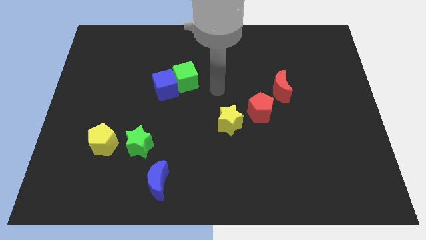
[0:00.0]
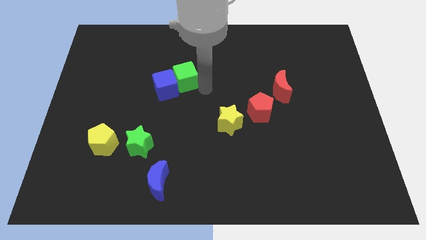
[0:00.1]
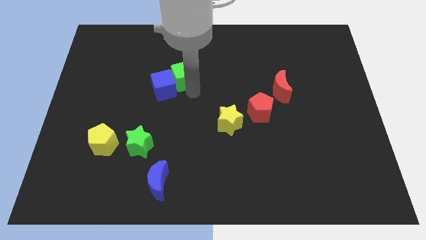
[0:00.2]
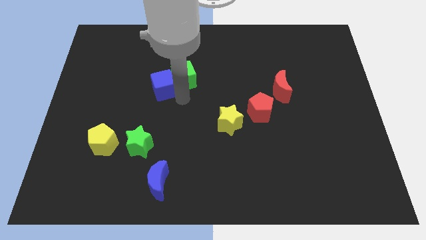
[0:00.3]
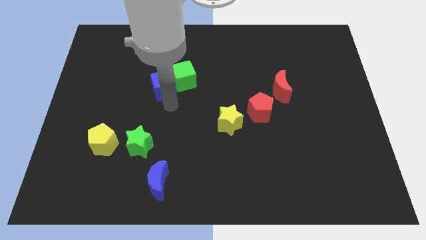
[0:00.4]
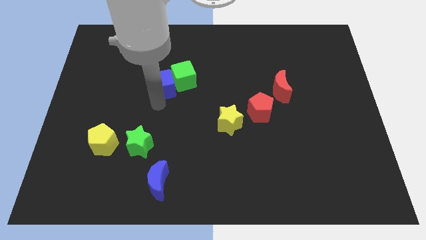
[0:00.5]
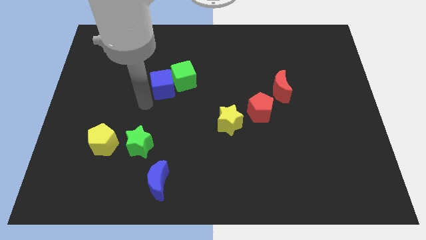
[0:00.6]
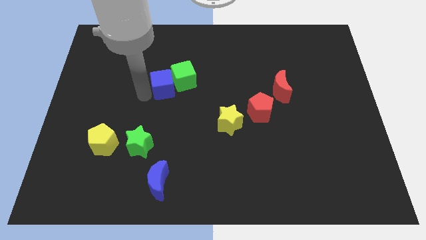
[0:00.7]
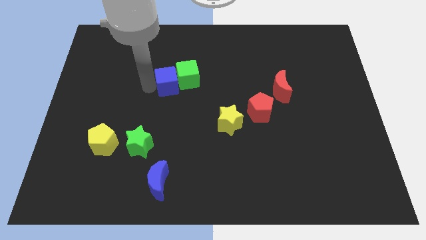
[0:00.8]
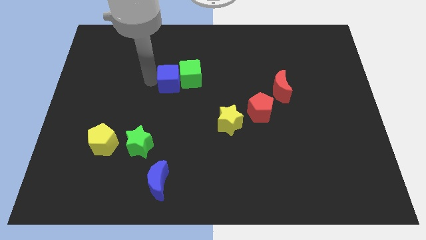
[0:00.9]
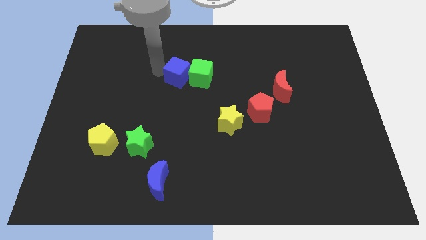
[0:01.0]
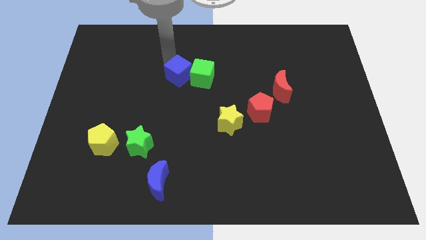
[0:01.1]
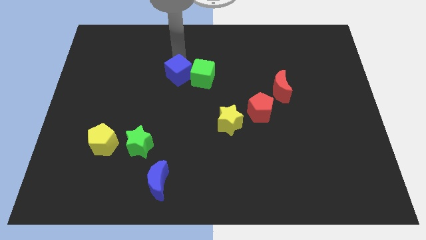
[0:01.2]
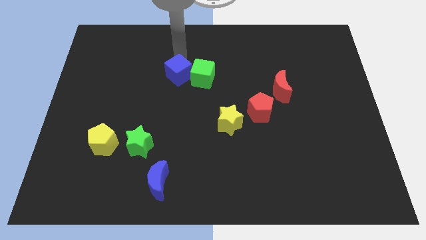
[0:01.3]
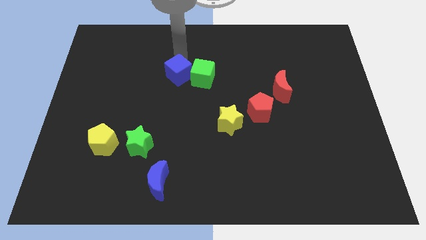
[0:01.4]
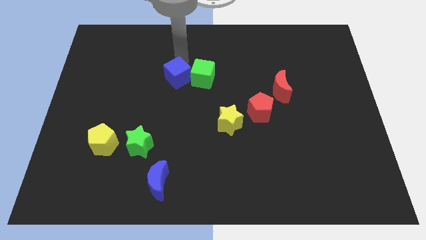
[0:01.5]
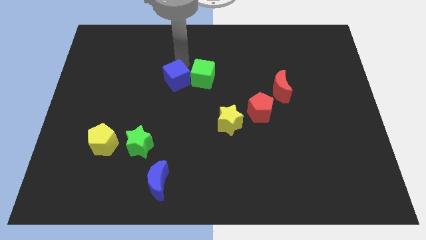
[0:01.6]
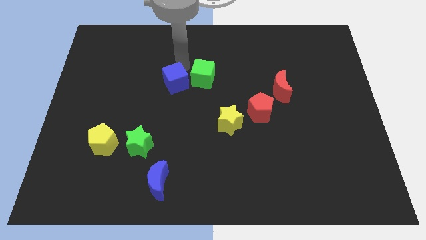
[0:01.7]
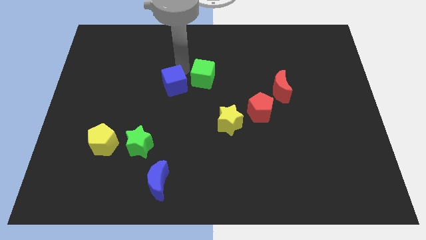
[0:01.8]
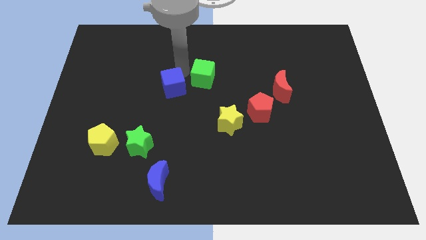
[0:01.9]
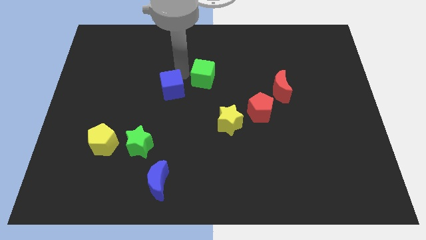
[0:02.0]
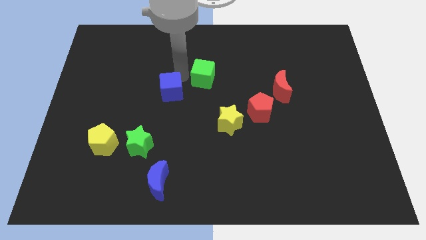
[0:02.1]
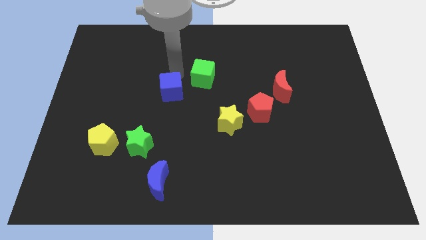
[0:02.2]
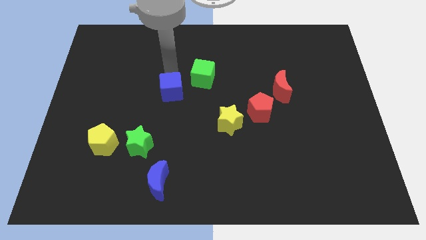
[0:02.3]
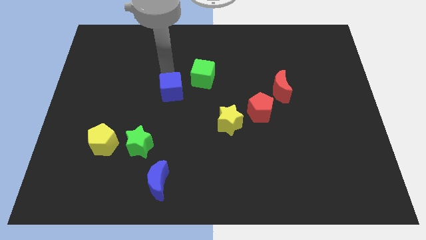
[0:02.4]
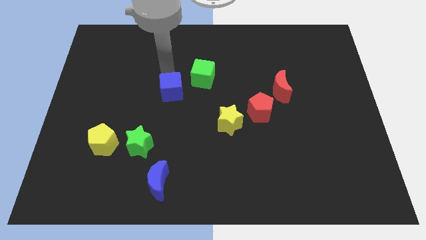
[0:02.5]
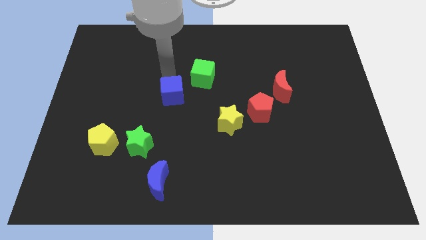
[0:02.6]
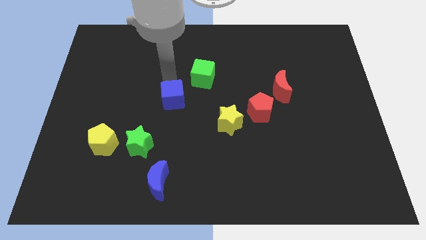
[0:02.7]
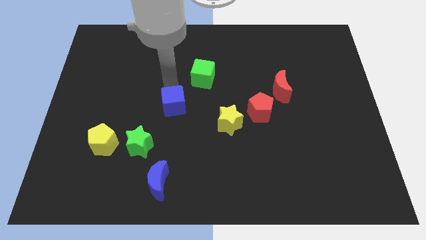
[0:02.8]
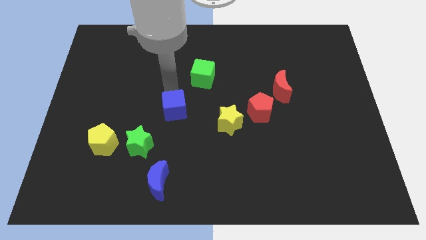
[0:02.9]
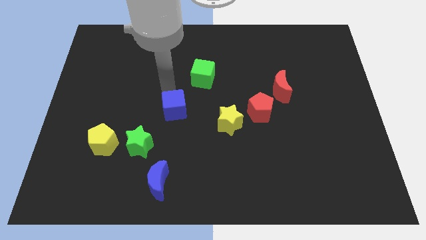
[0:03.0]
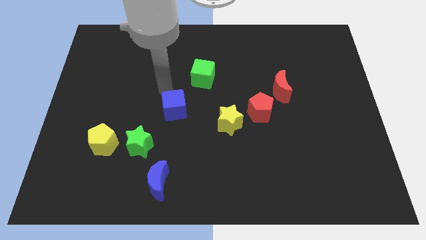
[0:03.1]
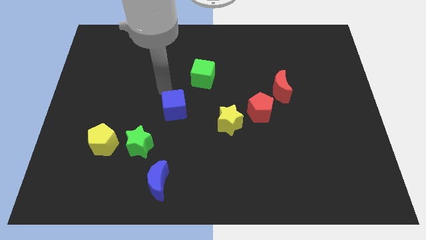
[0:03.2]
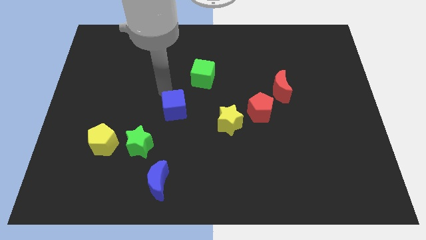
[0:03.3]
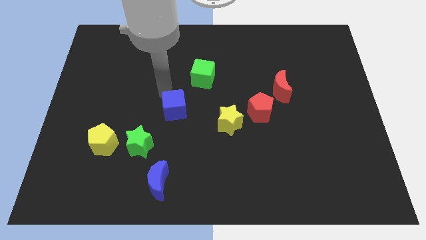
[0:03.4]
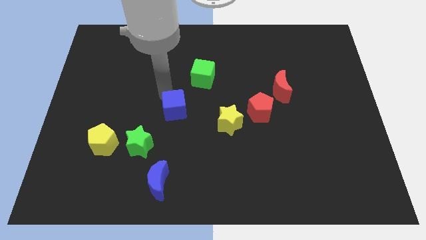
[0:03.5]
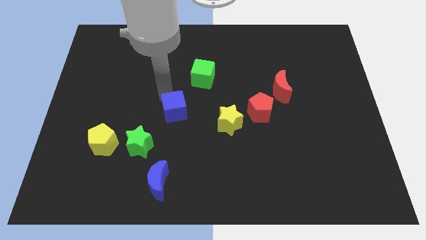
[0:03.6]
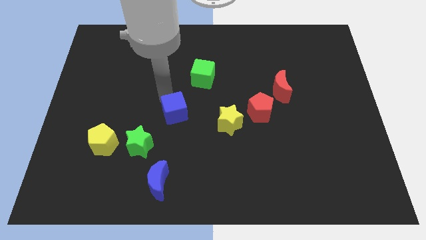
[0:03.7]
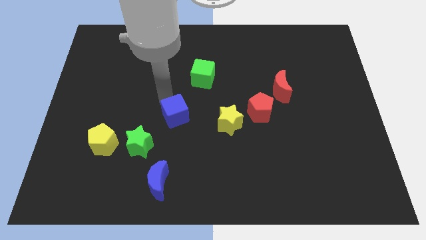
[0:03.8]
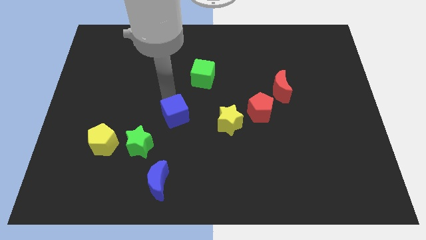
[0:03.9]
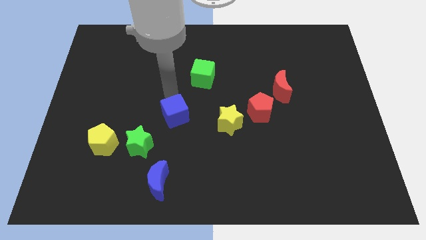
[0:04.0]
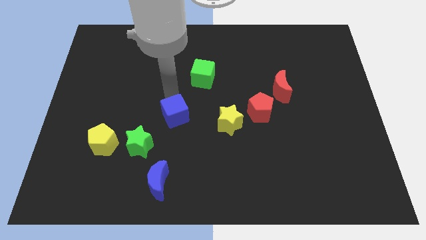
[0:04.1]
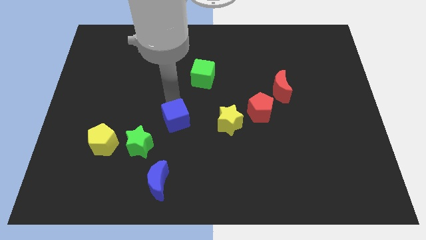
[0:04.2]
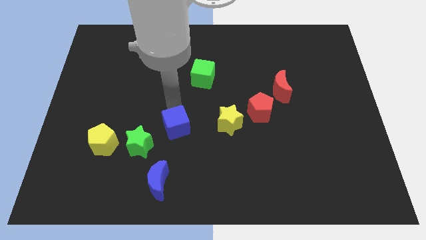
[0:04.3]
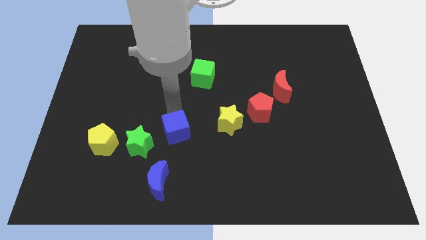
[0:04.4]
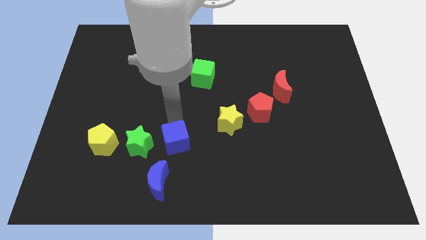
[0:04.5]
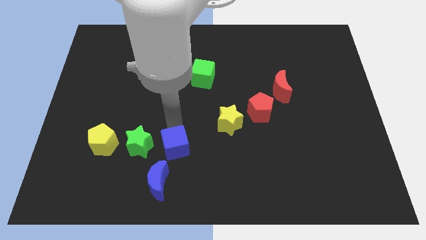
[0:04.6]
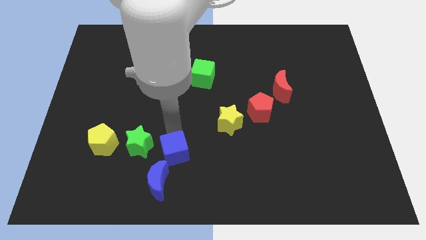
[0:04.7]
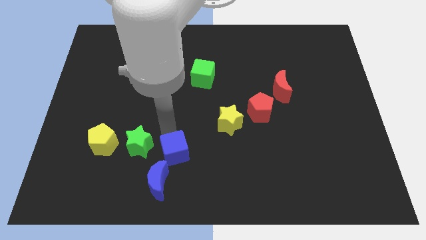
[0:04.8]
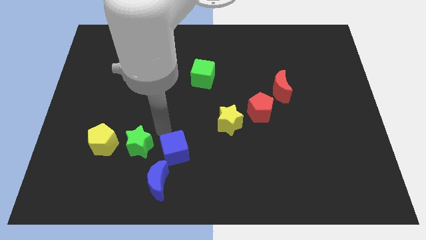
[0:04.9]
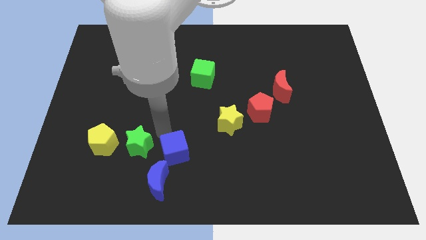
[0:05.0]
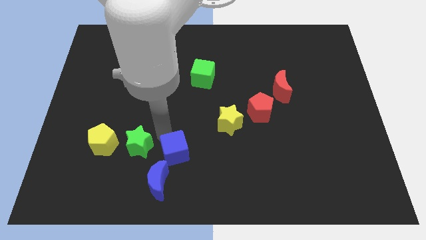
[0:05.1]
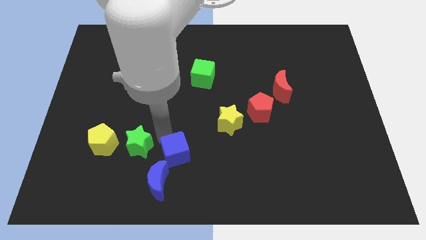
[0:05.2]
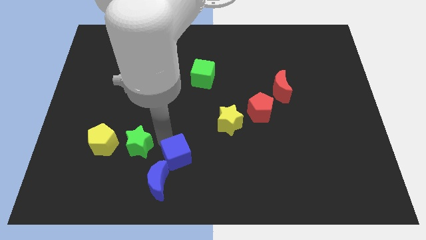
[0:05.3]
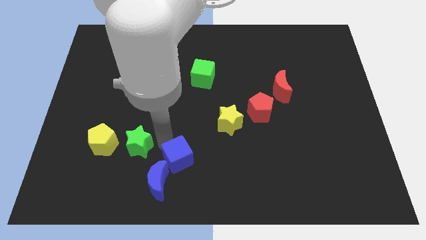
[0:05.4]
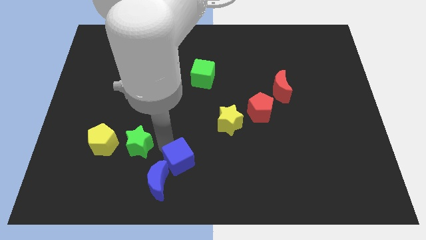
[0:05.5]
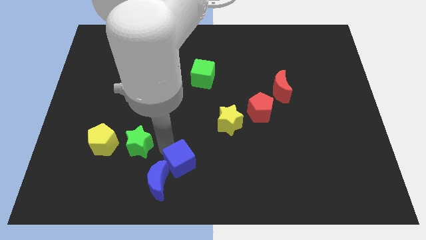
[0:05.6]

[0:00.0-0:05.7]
slide the blue cube to the bottom

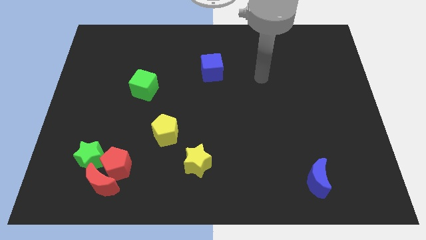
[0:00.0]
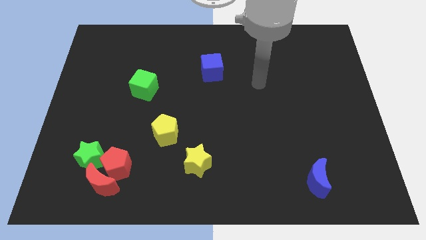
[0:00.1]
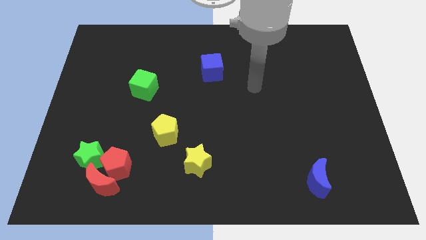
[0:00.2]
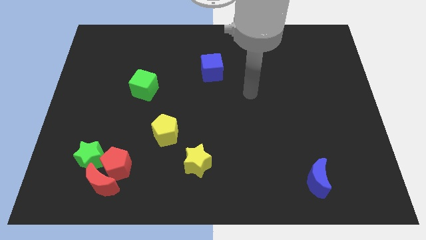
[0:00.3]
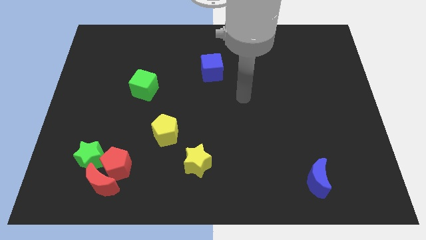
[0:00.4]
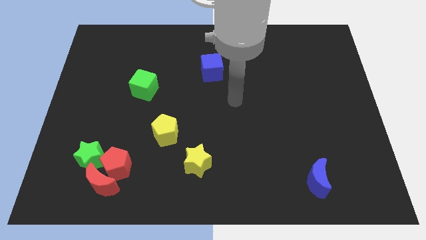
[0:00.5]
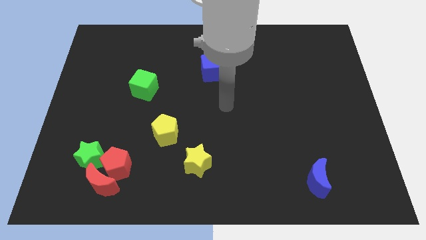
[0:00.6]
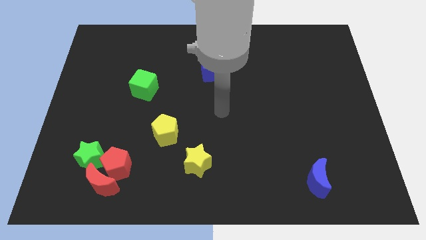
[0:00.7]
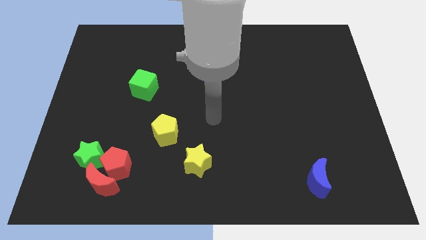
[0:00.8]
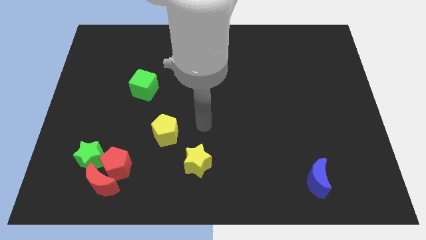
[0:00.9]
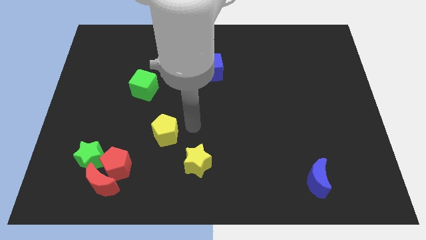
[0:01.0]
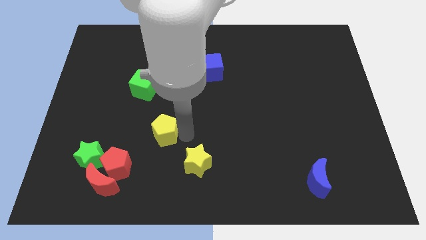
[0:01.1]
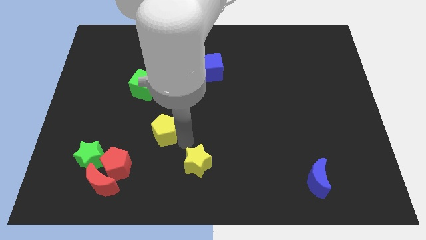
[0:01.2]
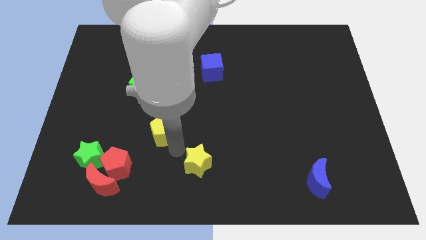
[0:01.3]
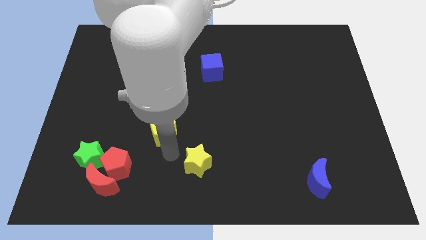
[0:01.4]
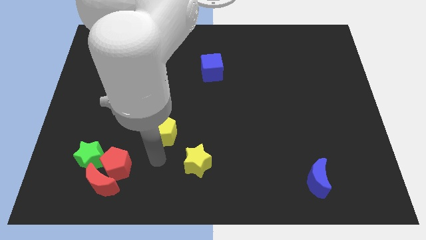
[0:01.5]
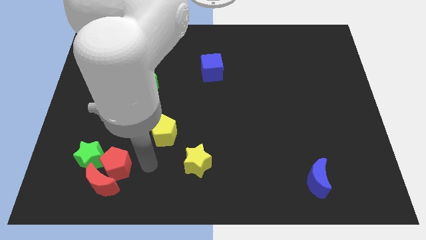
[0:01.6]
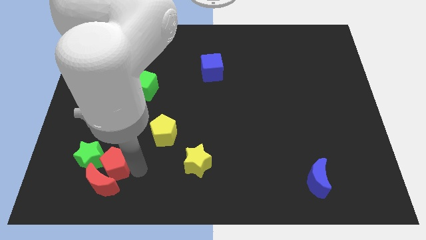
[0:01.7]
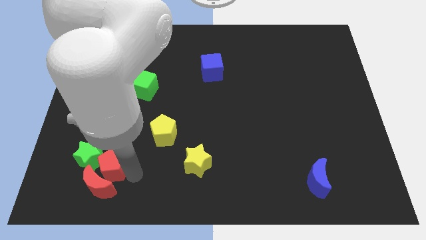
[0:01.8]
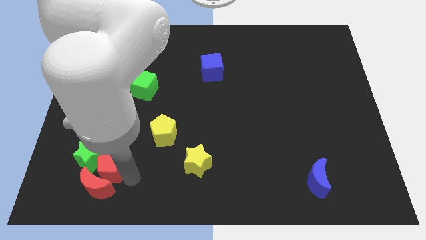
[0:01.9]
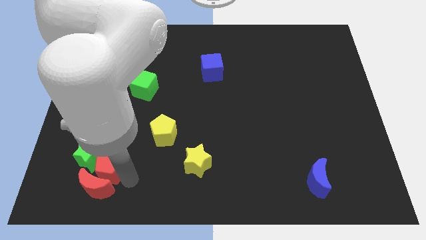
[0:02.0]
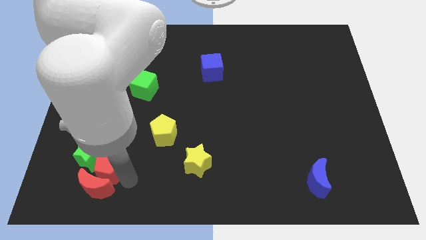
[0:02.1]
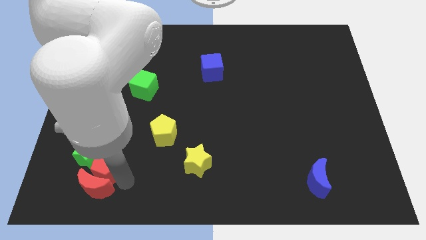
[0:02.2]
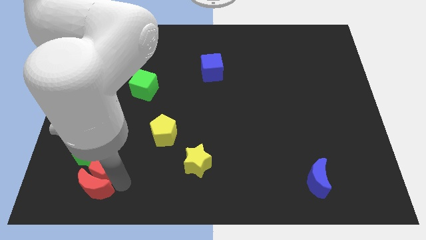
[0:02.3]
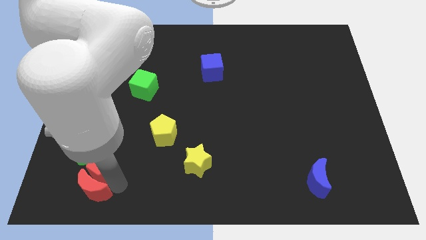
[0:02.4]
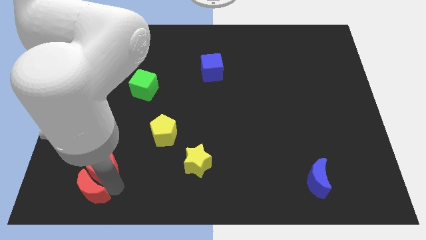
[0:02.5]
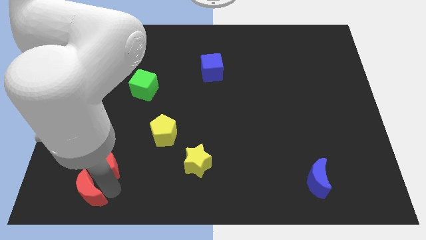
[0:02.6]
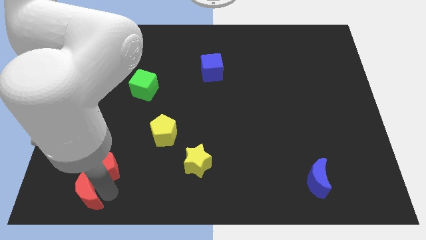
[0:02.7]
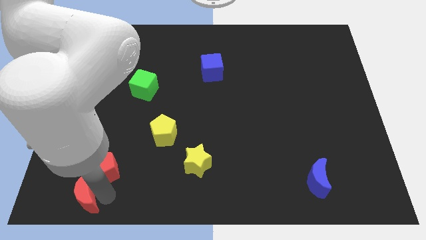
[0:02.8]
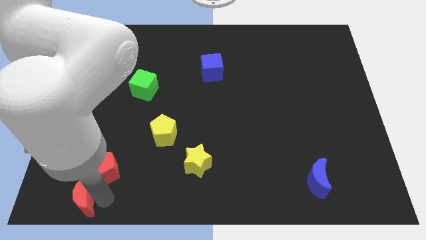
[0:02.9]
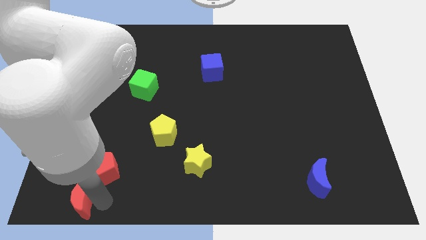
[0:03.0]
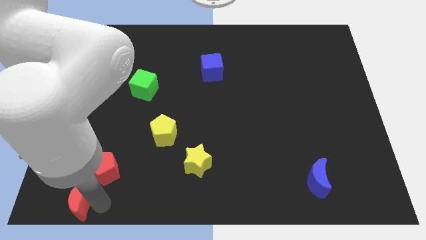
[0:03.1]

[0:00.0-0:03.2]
move the red moon to the bottom left of the board
